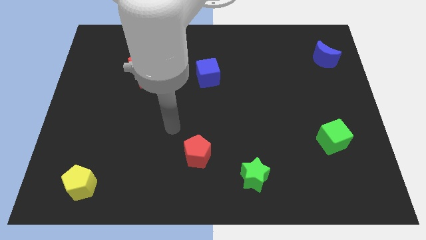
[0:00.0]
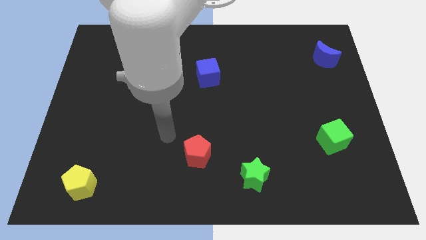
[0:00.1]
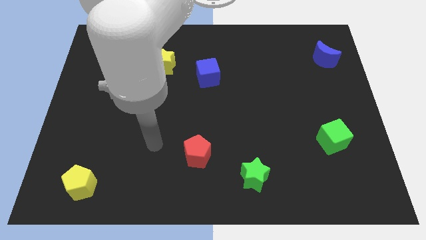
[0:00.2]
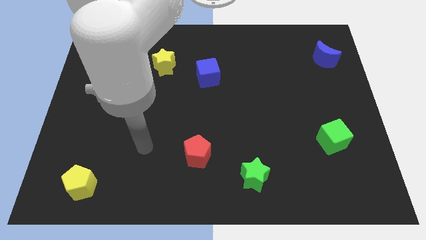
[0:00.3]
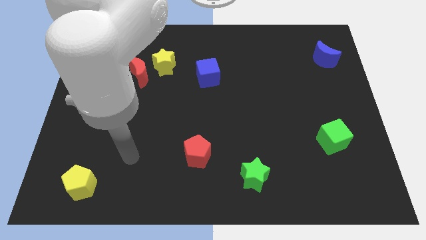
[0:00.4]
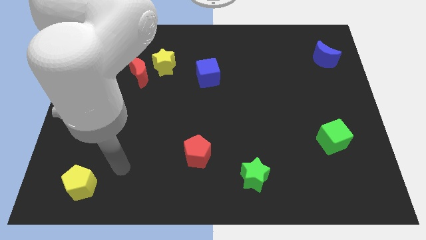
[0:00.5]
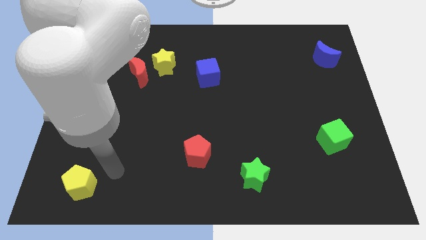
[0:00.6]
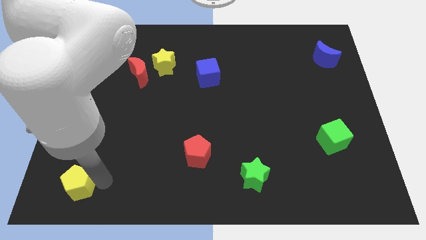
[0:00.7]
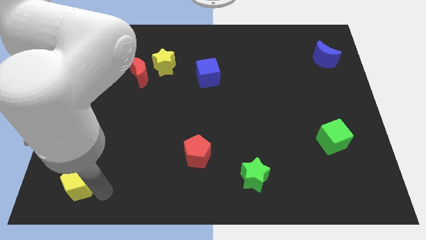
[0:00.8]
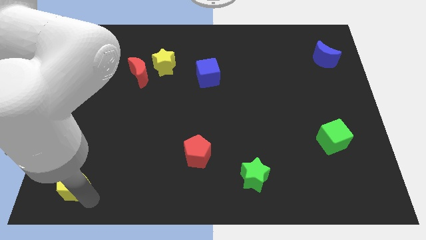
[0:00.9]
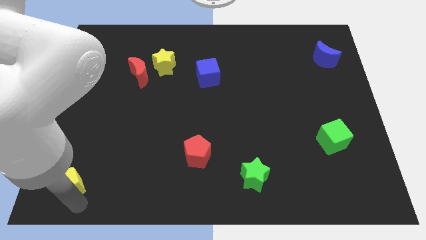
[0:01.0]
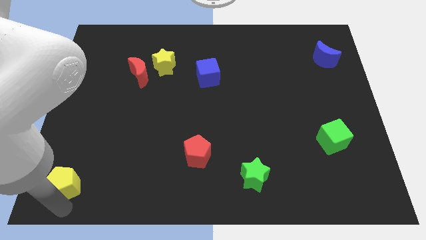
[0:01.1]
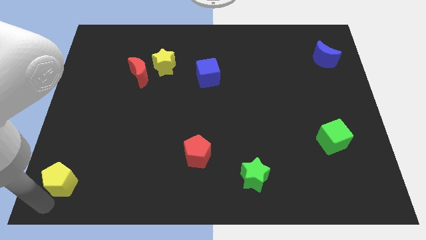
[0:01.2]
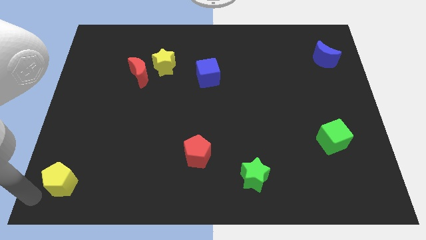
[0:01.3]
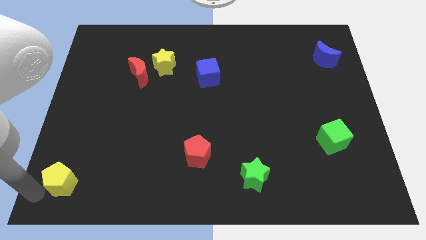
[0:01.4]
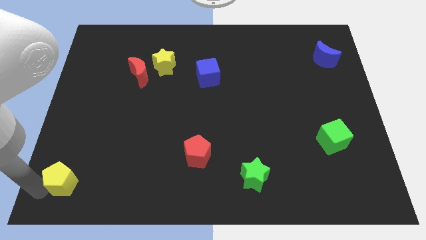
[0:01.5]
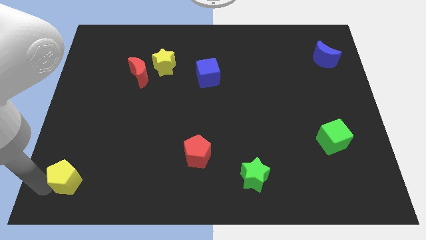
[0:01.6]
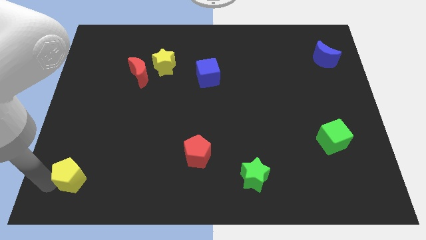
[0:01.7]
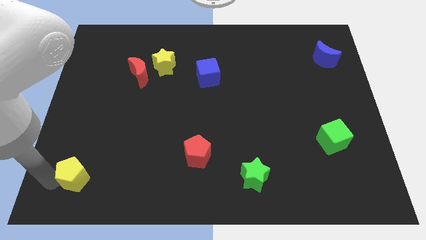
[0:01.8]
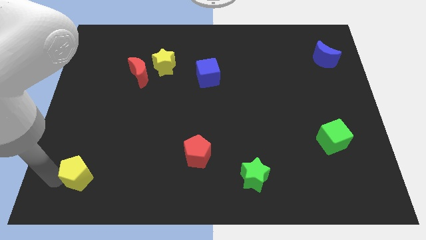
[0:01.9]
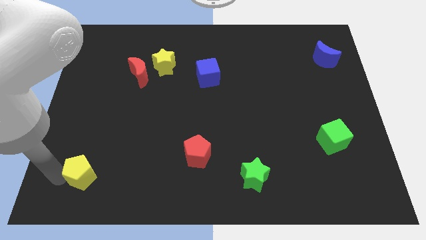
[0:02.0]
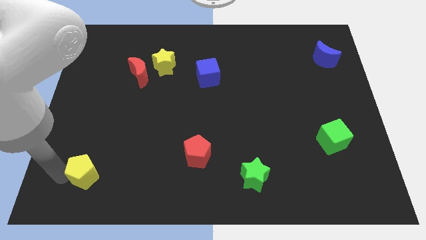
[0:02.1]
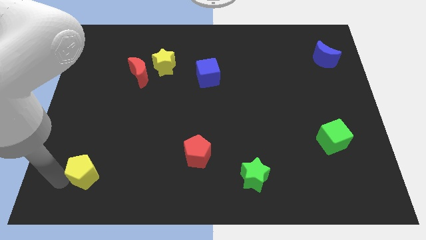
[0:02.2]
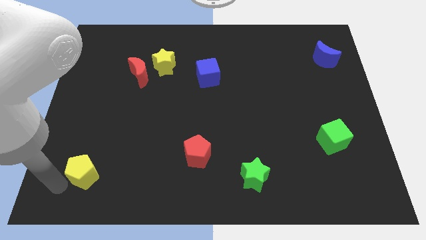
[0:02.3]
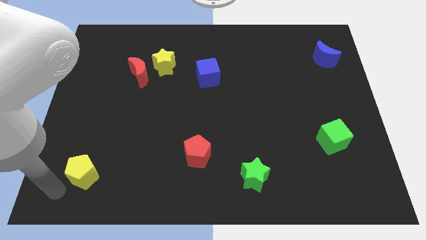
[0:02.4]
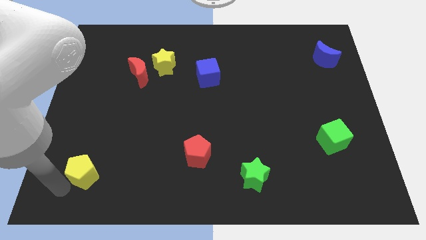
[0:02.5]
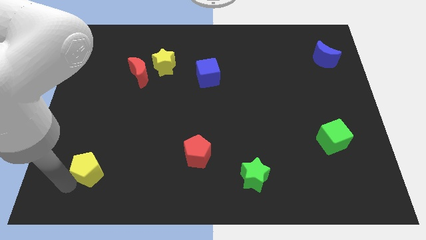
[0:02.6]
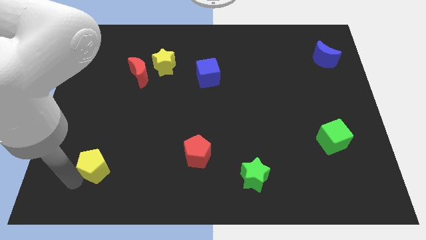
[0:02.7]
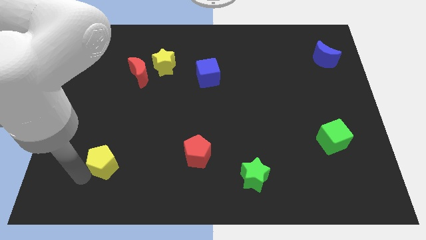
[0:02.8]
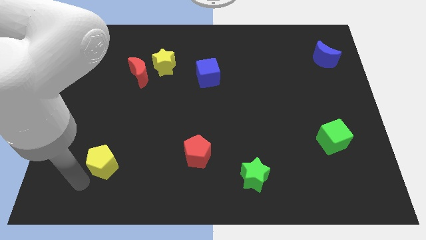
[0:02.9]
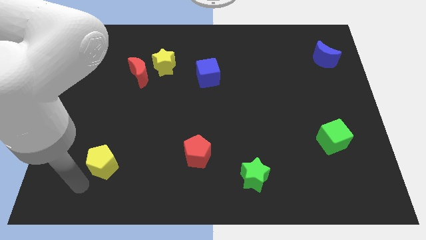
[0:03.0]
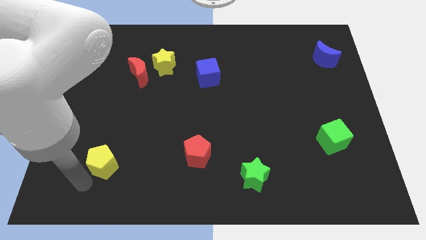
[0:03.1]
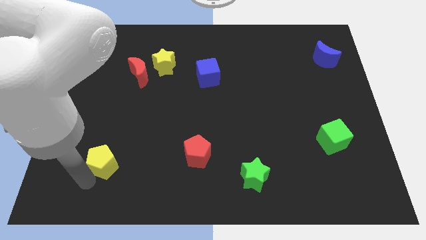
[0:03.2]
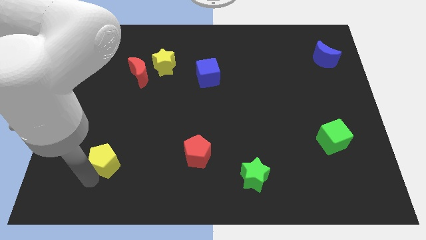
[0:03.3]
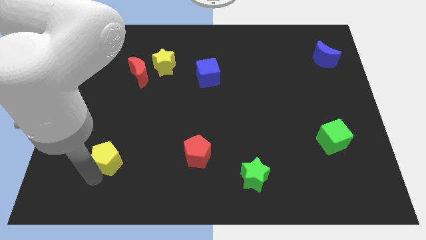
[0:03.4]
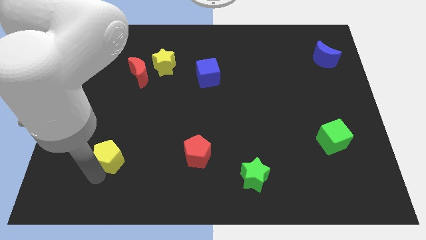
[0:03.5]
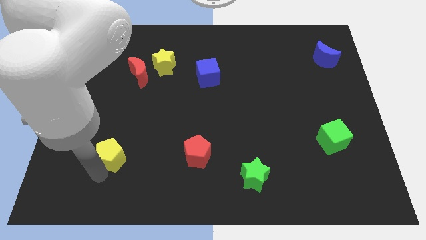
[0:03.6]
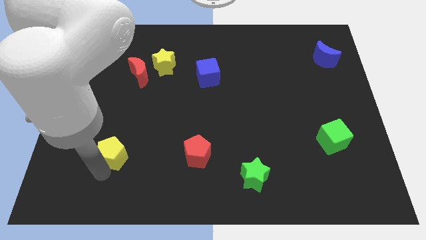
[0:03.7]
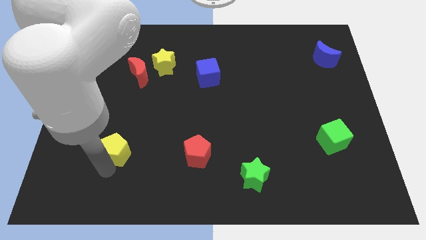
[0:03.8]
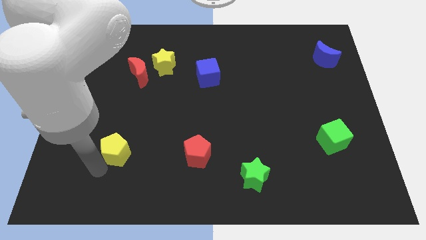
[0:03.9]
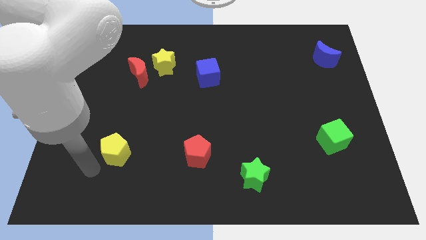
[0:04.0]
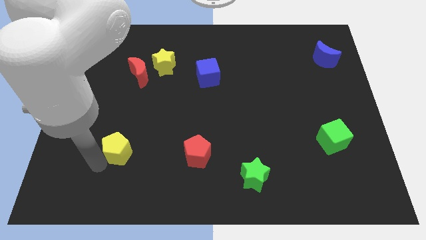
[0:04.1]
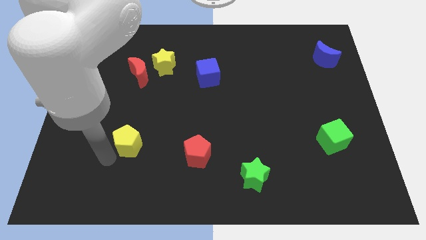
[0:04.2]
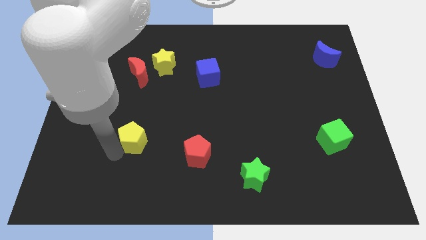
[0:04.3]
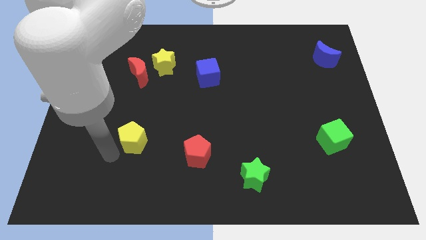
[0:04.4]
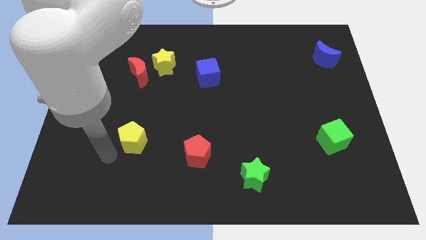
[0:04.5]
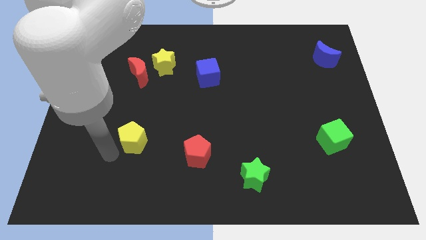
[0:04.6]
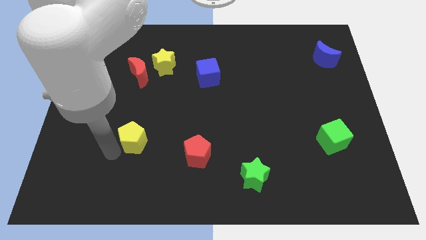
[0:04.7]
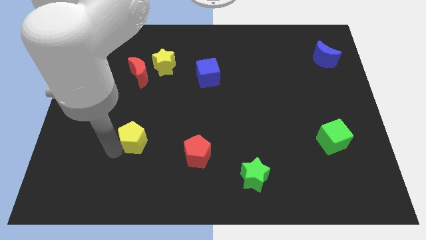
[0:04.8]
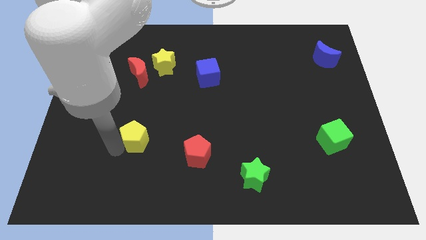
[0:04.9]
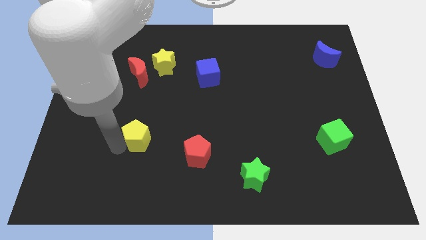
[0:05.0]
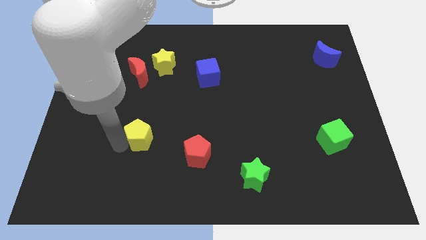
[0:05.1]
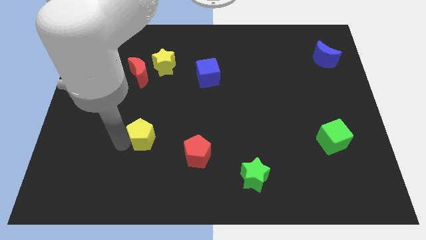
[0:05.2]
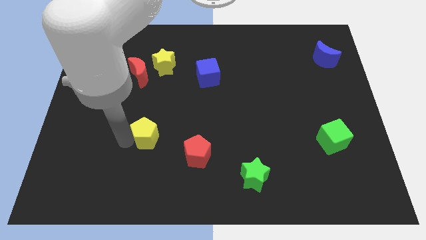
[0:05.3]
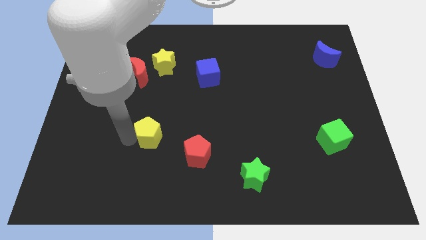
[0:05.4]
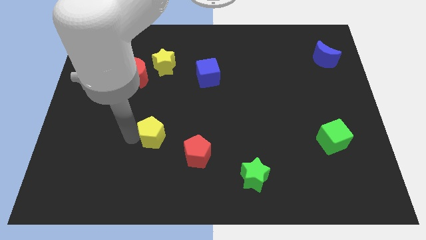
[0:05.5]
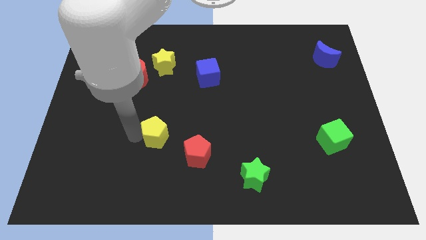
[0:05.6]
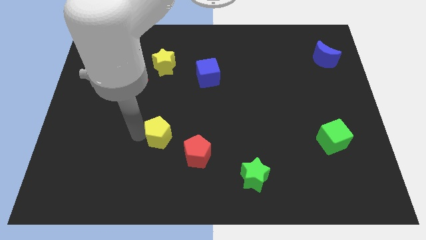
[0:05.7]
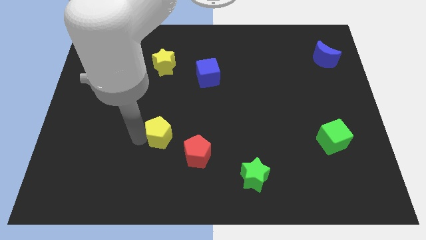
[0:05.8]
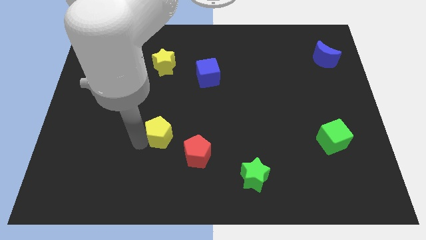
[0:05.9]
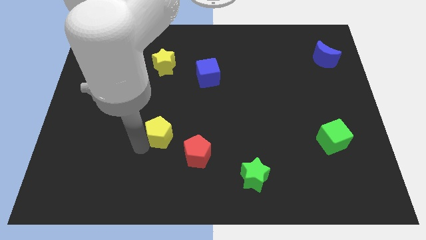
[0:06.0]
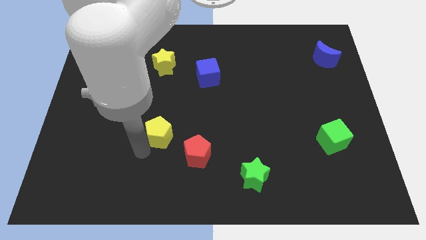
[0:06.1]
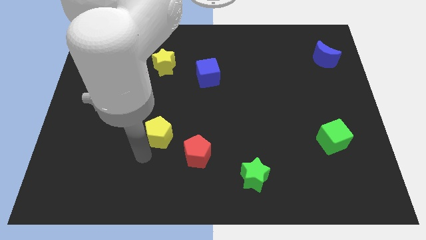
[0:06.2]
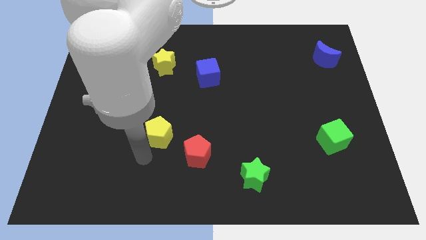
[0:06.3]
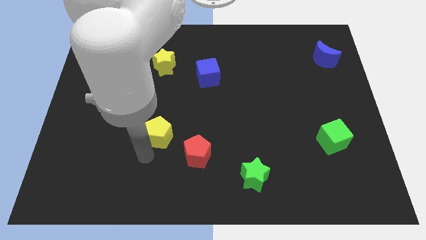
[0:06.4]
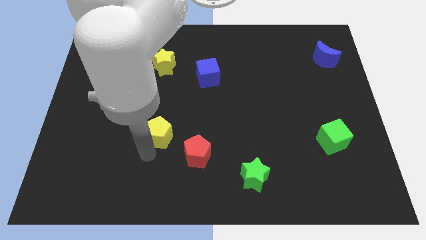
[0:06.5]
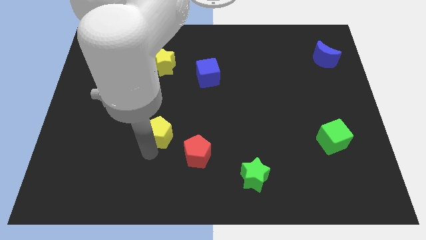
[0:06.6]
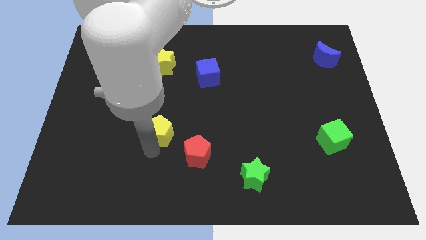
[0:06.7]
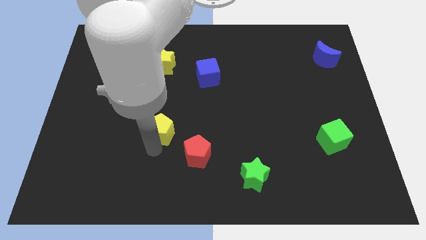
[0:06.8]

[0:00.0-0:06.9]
move the yellow pentagon upwards and then to the right

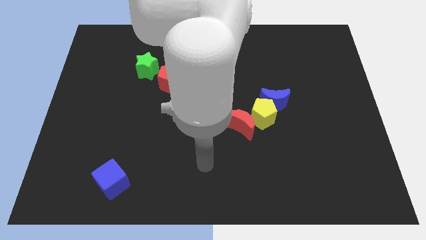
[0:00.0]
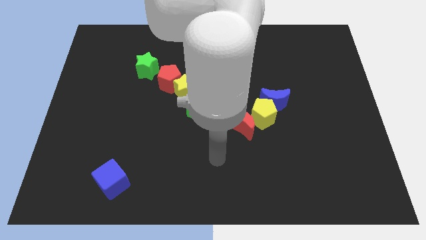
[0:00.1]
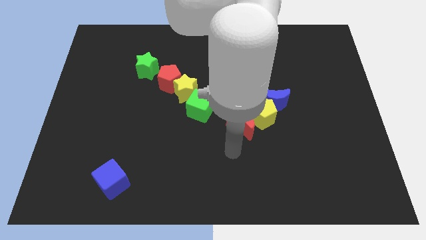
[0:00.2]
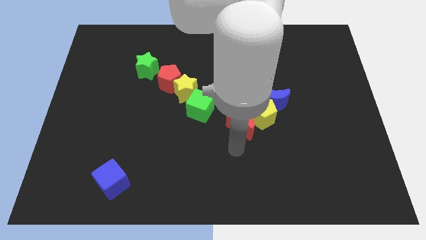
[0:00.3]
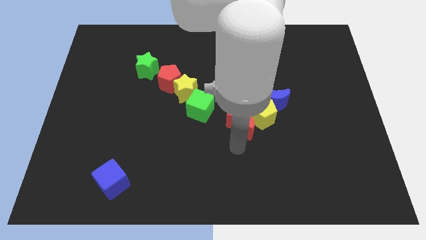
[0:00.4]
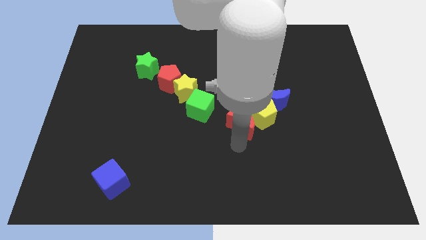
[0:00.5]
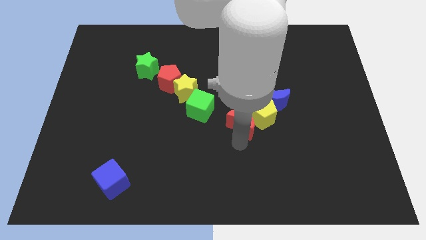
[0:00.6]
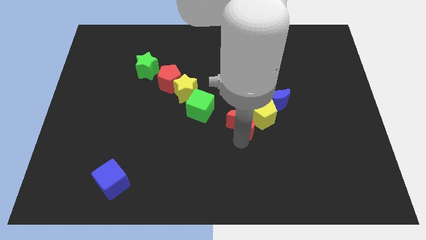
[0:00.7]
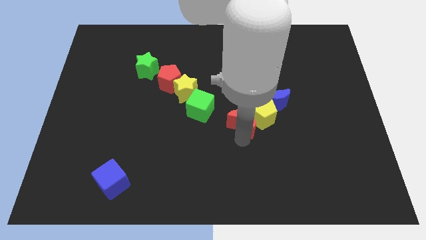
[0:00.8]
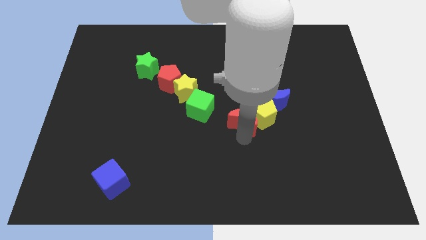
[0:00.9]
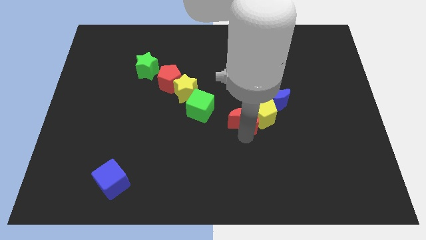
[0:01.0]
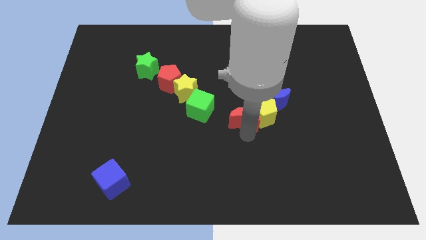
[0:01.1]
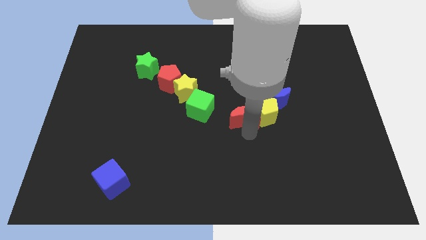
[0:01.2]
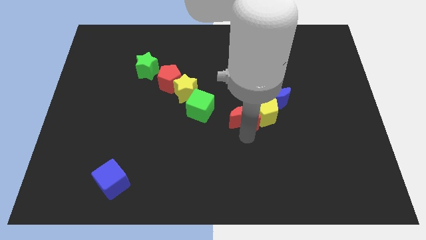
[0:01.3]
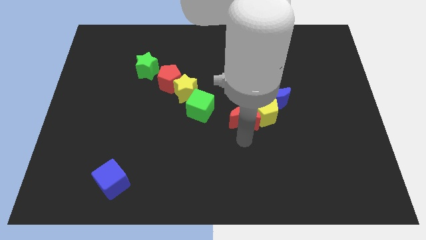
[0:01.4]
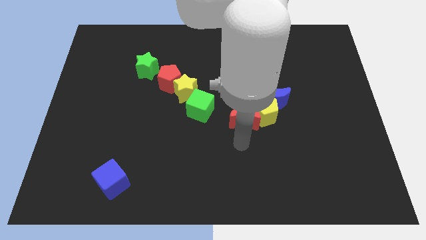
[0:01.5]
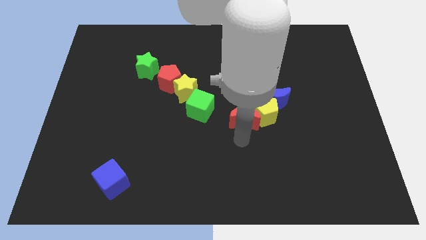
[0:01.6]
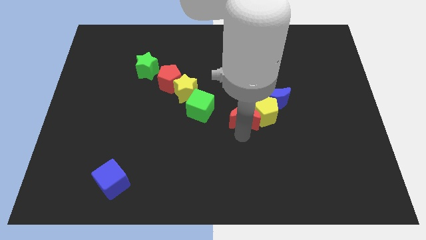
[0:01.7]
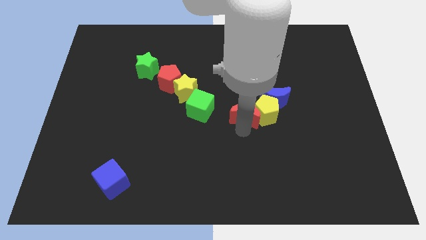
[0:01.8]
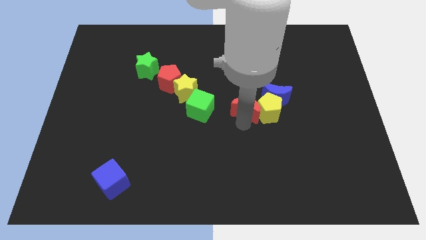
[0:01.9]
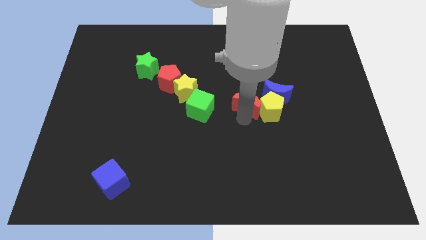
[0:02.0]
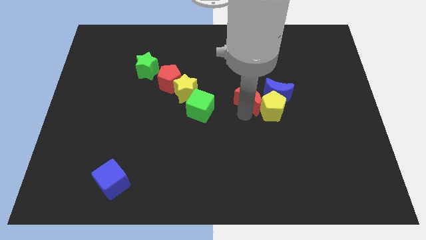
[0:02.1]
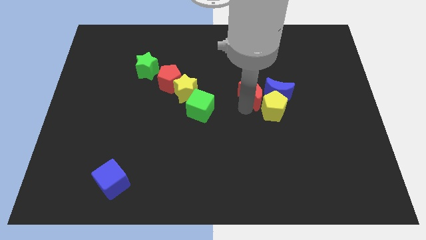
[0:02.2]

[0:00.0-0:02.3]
push the red moon upwards and to the right diagonally a little bit
